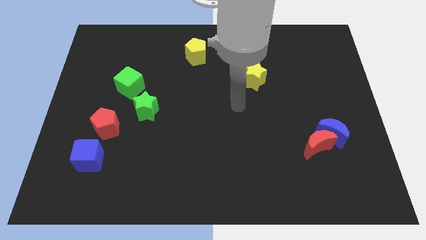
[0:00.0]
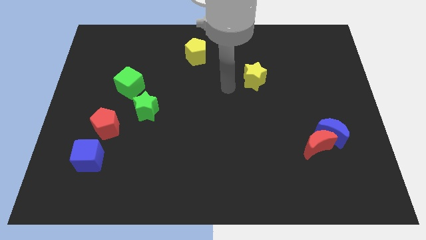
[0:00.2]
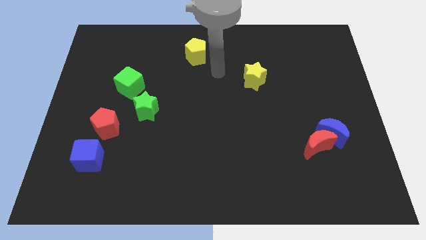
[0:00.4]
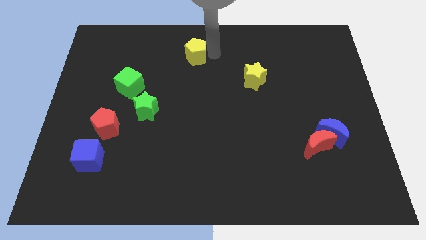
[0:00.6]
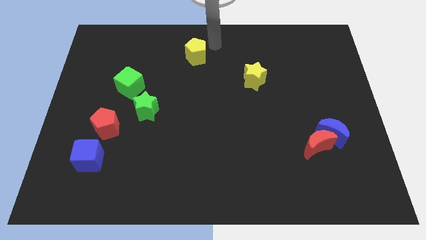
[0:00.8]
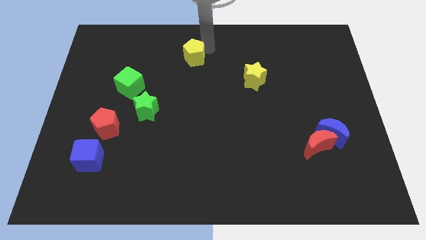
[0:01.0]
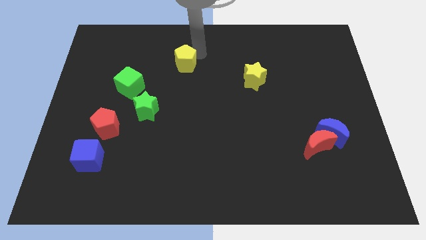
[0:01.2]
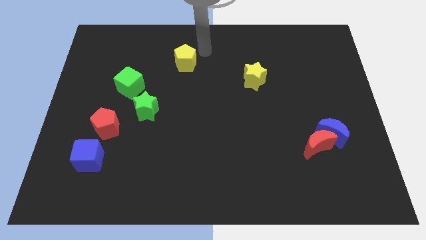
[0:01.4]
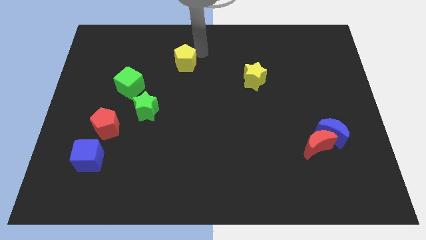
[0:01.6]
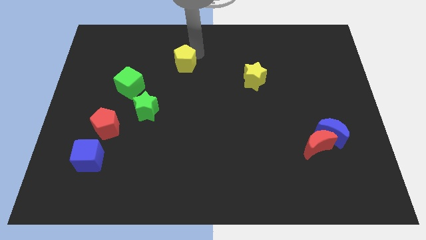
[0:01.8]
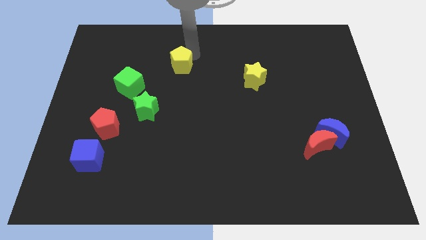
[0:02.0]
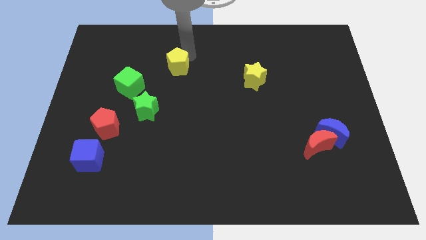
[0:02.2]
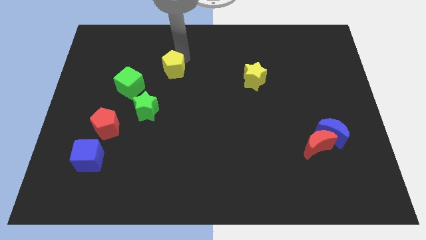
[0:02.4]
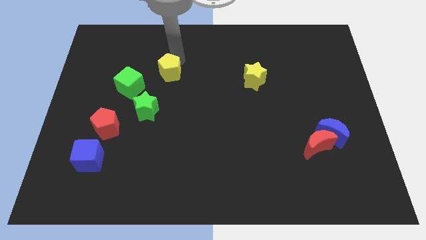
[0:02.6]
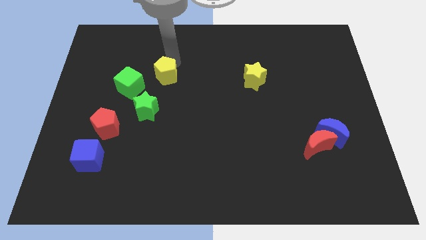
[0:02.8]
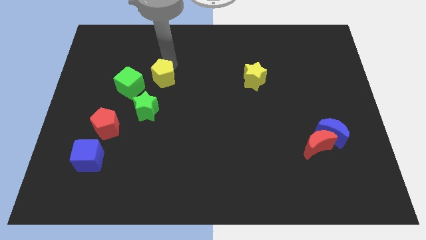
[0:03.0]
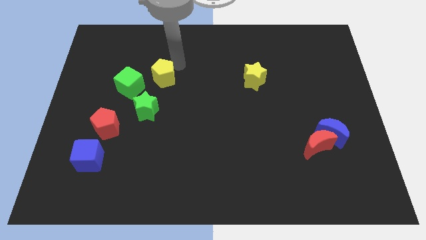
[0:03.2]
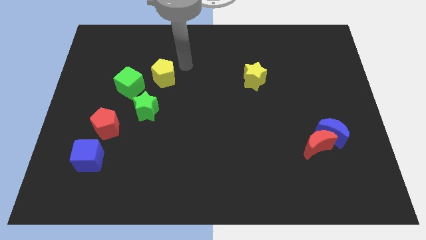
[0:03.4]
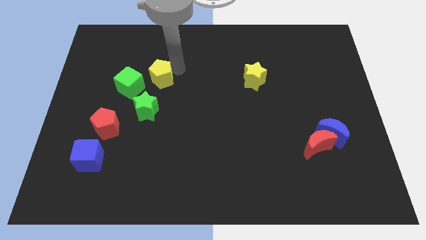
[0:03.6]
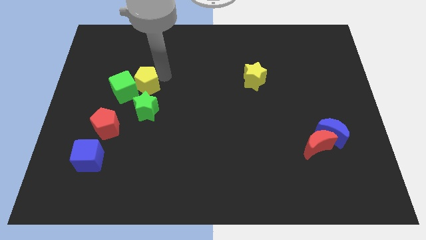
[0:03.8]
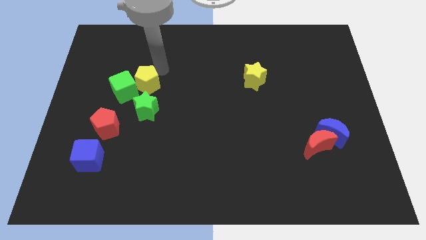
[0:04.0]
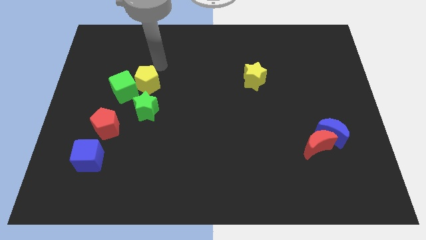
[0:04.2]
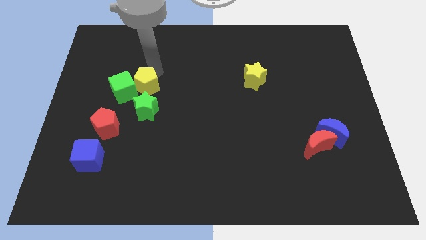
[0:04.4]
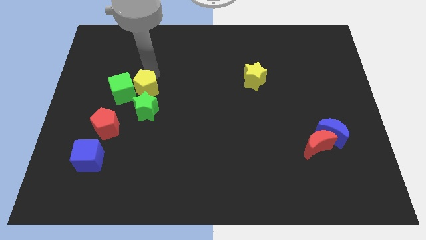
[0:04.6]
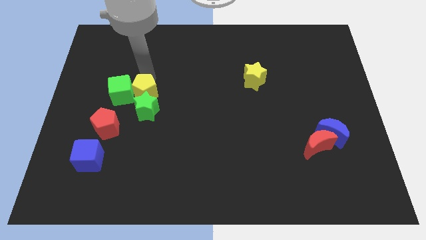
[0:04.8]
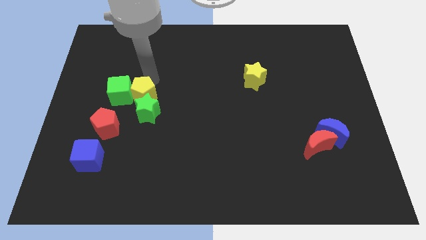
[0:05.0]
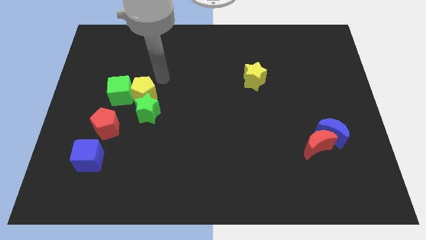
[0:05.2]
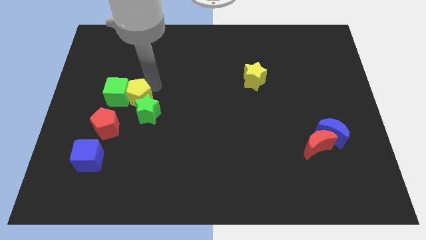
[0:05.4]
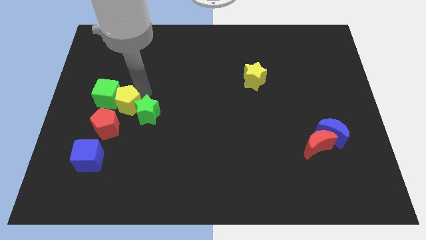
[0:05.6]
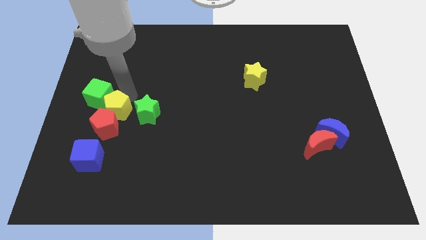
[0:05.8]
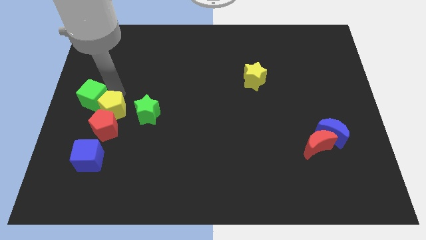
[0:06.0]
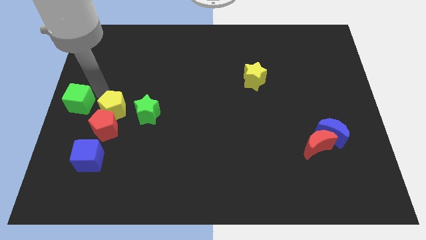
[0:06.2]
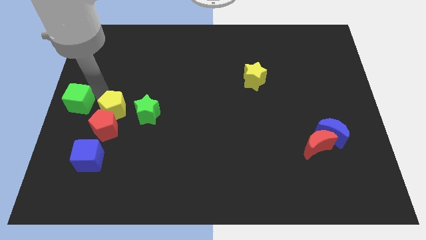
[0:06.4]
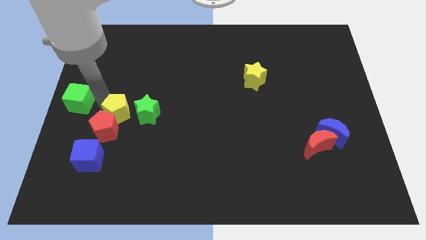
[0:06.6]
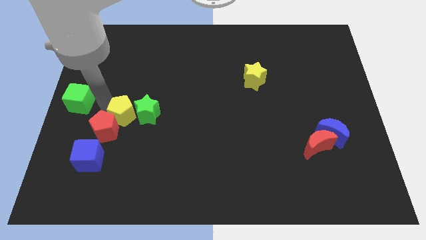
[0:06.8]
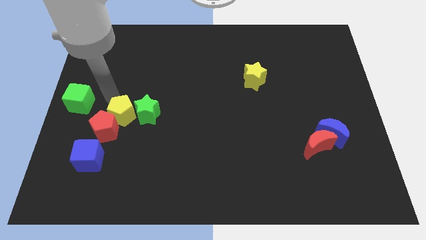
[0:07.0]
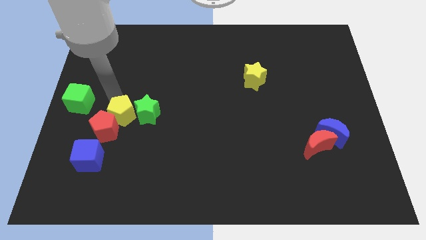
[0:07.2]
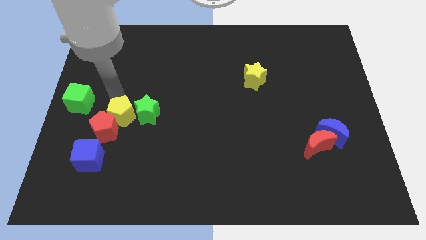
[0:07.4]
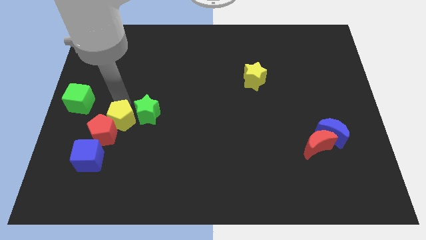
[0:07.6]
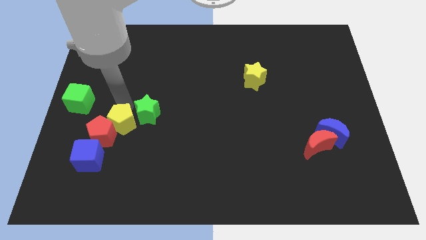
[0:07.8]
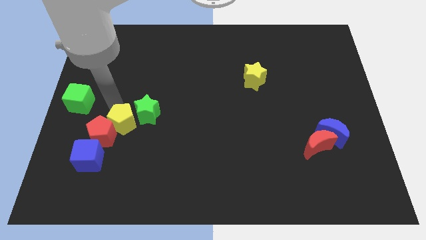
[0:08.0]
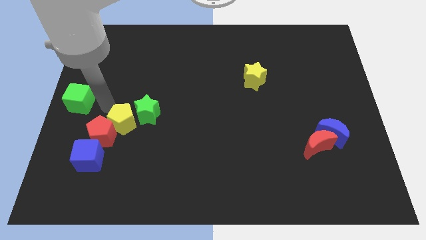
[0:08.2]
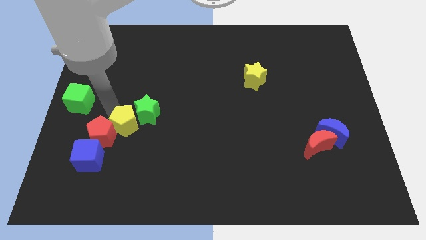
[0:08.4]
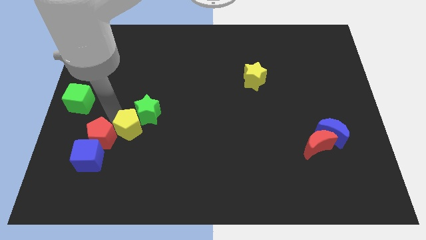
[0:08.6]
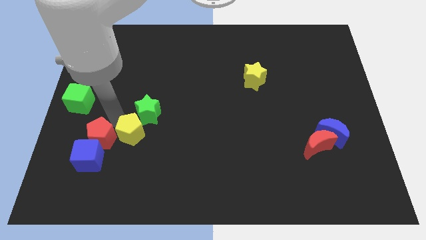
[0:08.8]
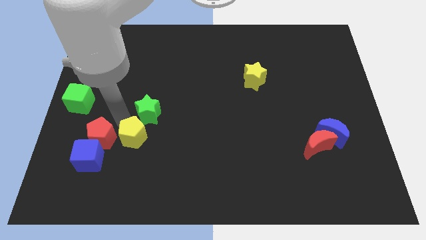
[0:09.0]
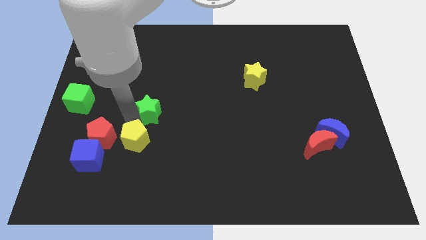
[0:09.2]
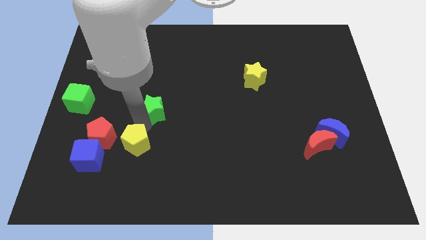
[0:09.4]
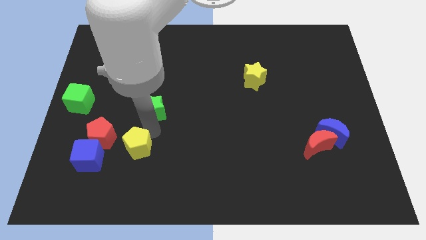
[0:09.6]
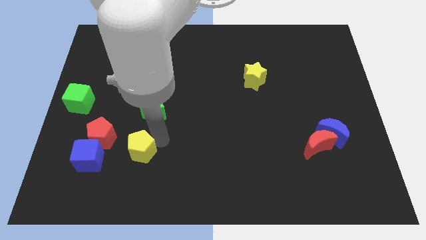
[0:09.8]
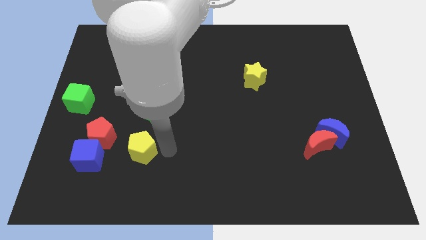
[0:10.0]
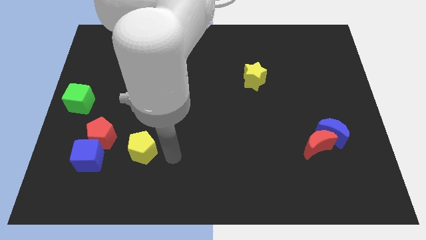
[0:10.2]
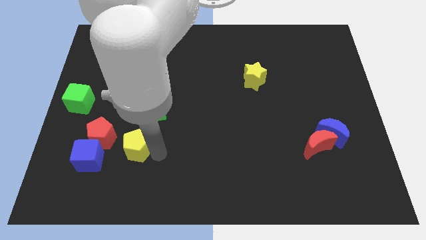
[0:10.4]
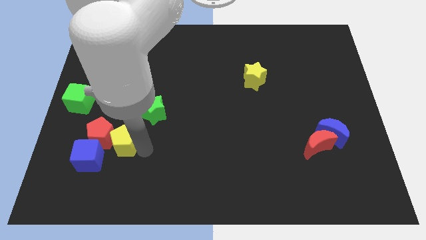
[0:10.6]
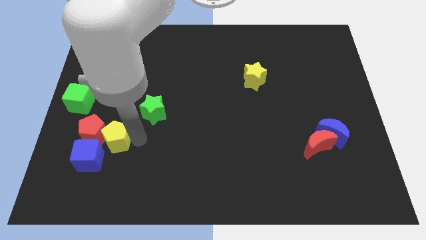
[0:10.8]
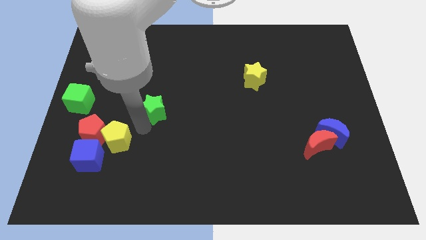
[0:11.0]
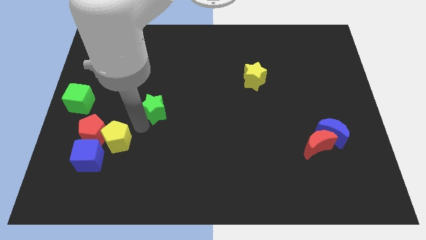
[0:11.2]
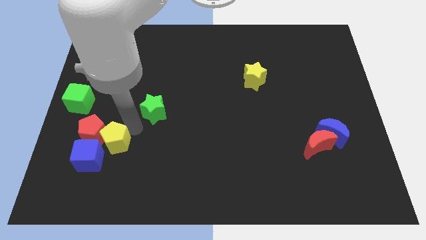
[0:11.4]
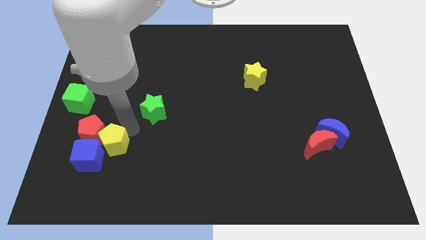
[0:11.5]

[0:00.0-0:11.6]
put the yellow pentagon towards the blue cube

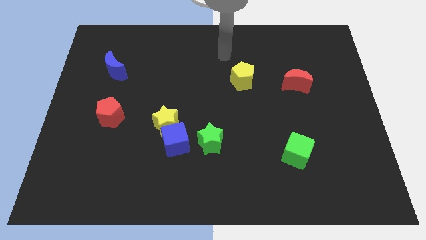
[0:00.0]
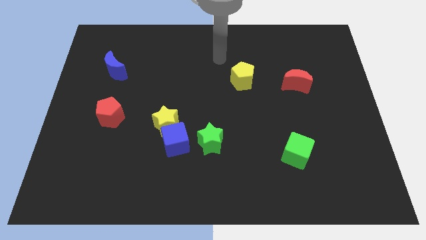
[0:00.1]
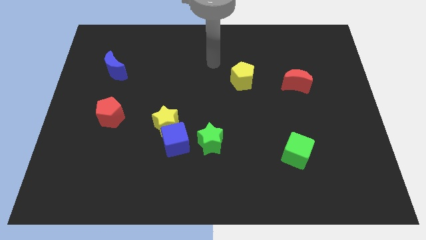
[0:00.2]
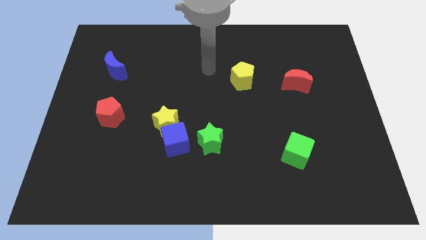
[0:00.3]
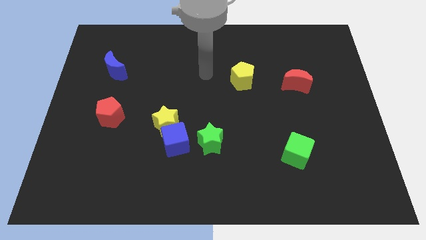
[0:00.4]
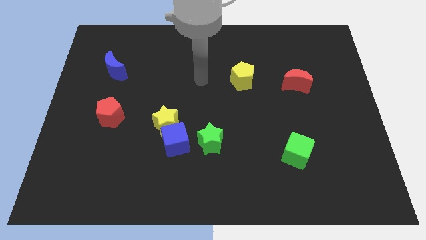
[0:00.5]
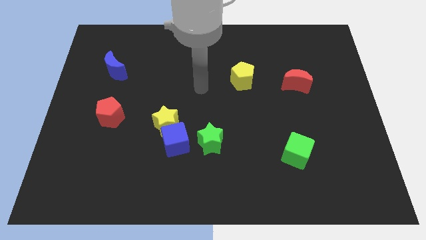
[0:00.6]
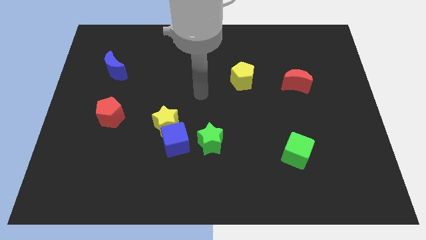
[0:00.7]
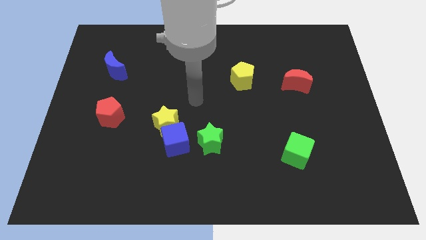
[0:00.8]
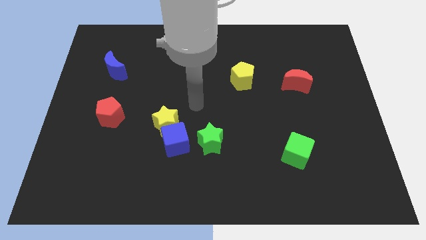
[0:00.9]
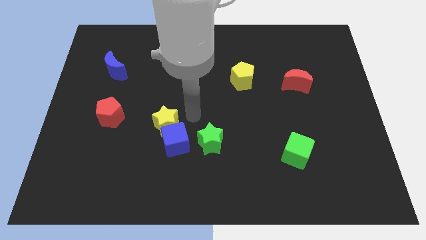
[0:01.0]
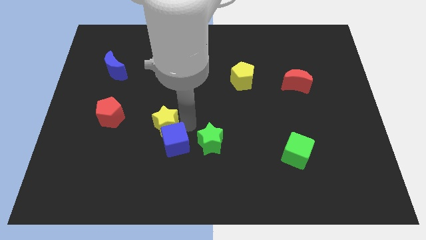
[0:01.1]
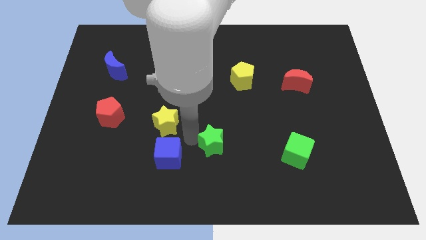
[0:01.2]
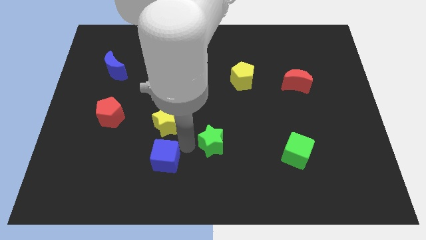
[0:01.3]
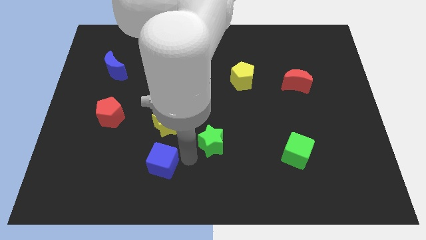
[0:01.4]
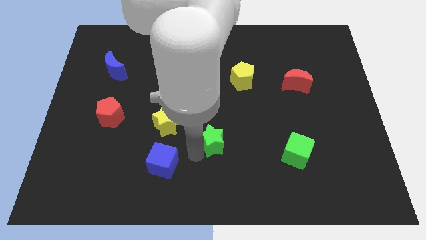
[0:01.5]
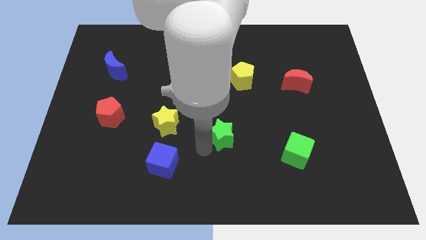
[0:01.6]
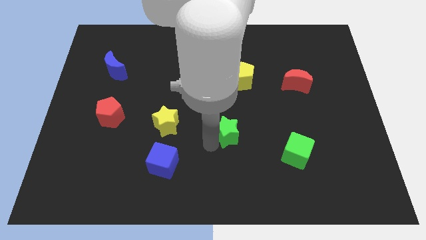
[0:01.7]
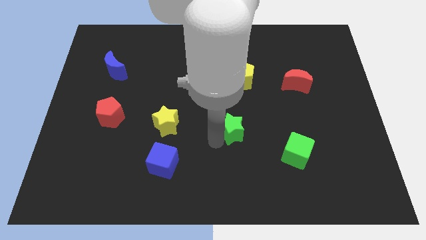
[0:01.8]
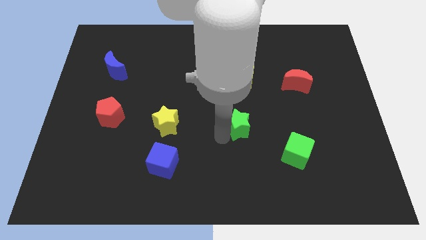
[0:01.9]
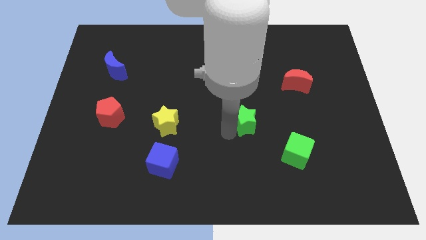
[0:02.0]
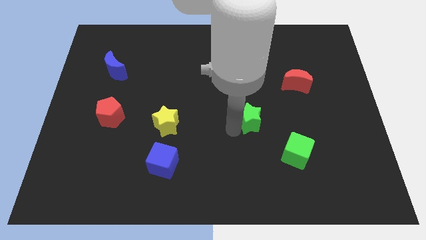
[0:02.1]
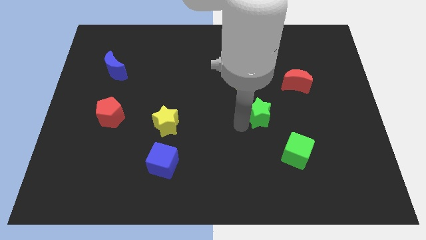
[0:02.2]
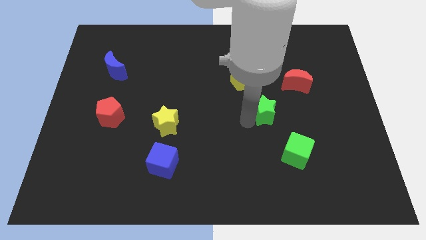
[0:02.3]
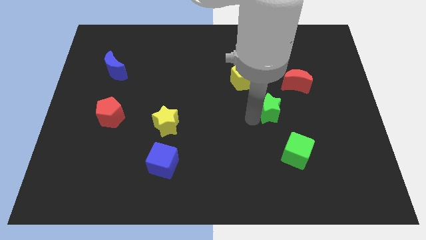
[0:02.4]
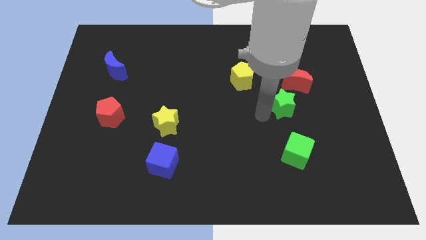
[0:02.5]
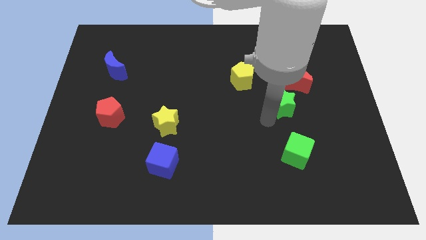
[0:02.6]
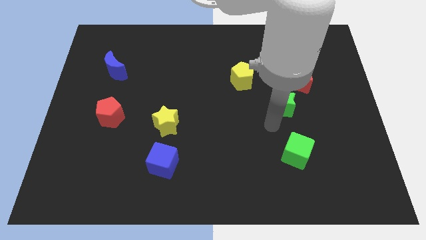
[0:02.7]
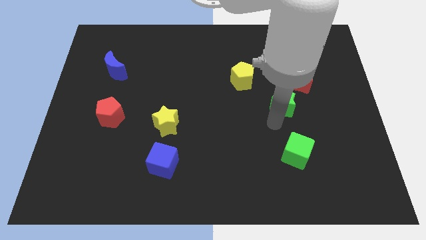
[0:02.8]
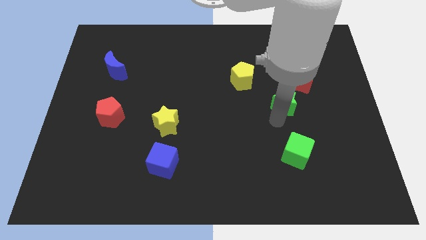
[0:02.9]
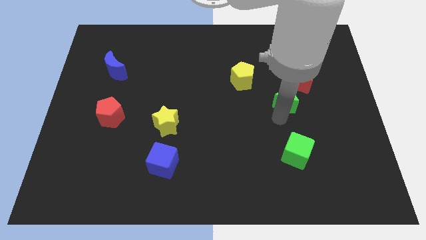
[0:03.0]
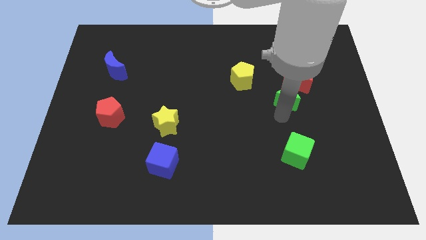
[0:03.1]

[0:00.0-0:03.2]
move the green star close to the red moon
